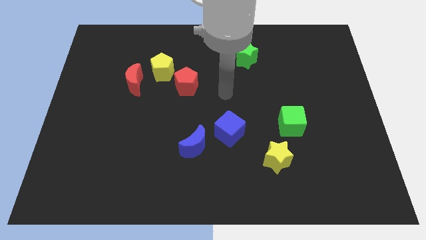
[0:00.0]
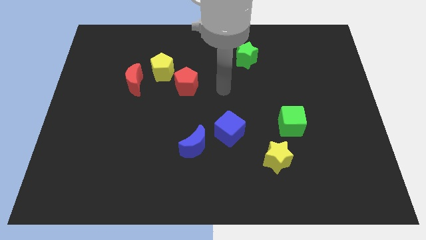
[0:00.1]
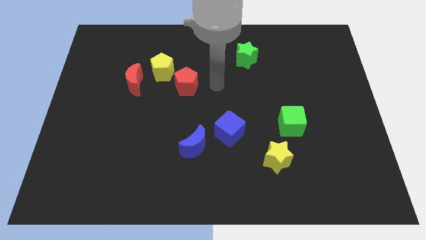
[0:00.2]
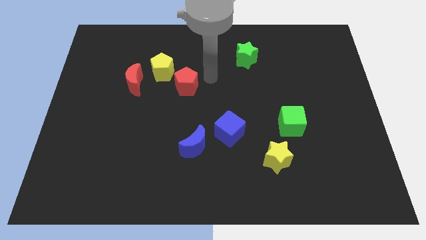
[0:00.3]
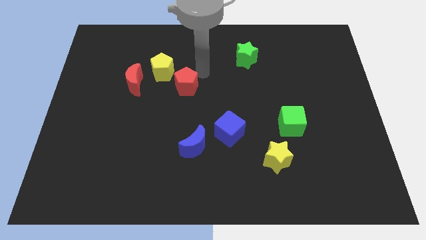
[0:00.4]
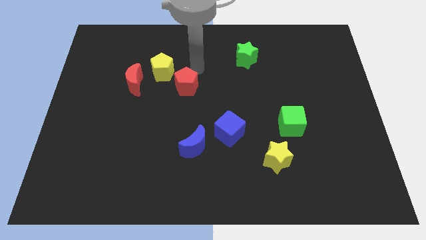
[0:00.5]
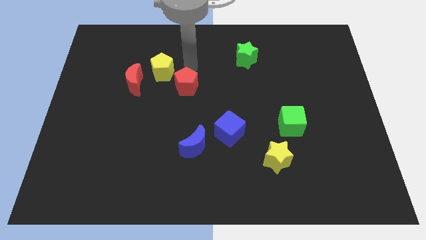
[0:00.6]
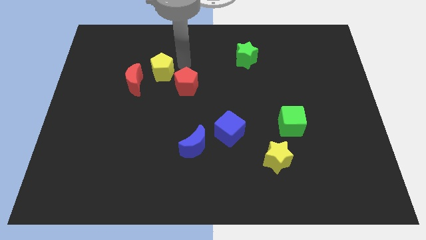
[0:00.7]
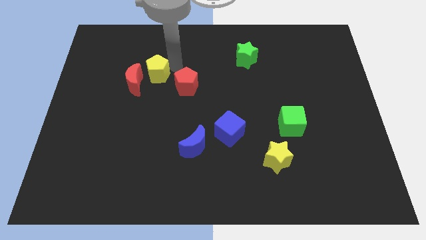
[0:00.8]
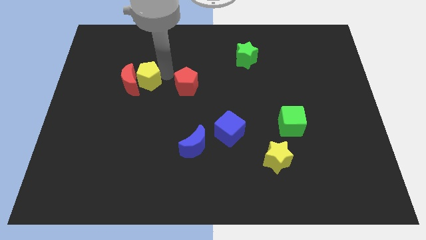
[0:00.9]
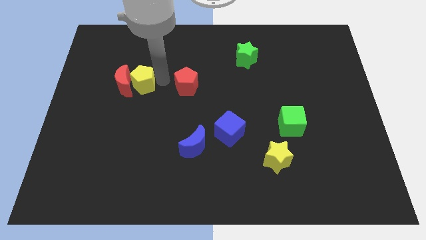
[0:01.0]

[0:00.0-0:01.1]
separate the red pentagon from the yellow pentagon

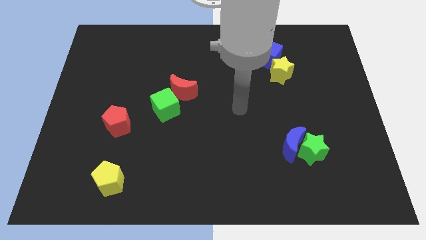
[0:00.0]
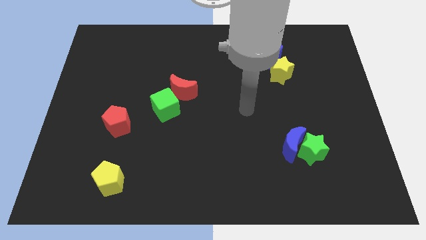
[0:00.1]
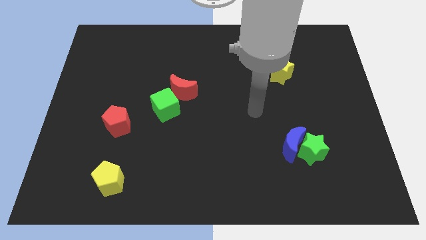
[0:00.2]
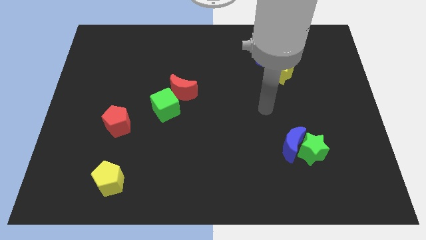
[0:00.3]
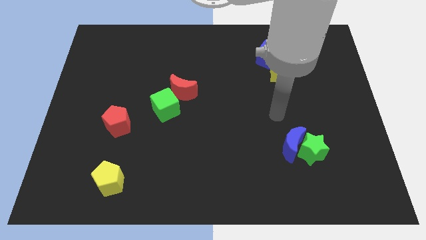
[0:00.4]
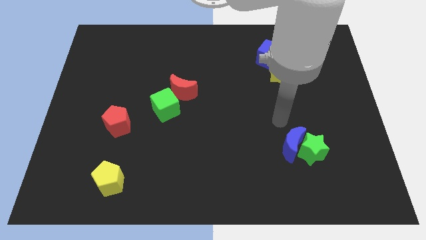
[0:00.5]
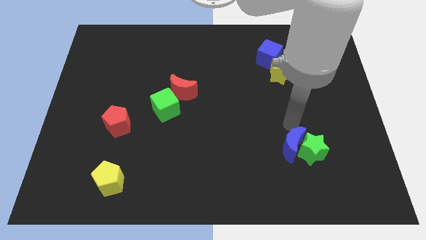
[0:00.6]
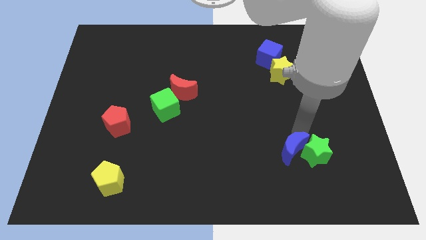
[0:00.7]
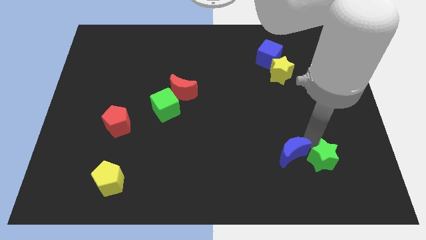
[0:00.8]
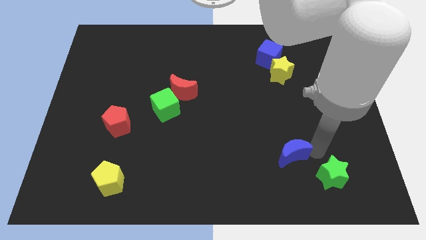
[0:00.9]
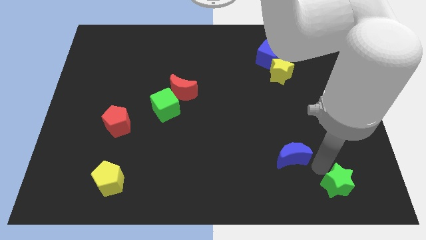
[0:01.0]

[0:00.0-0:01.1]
separate the blue moon from the green star

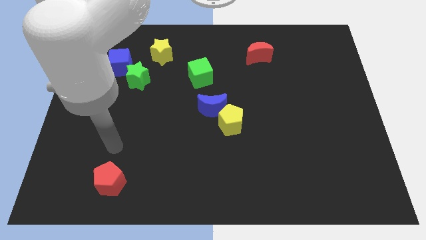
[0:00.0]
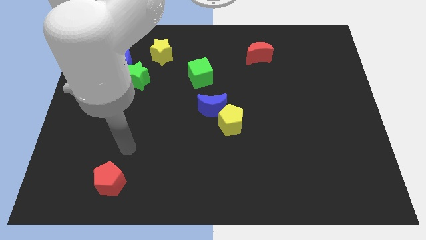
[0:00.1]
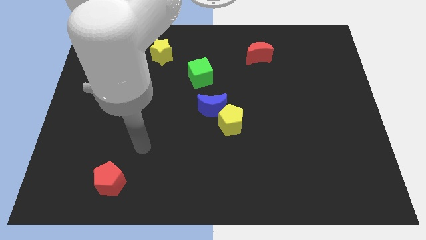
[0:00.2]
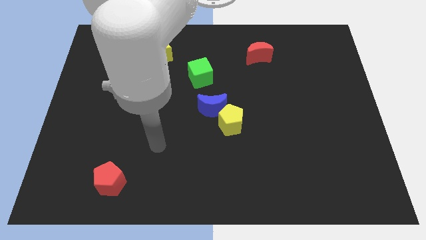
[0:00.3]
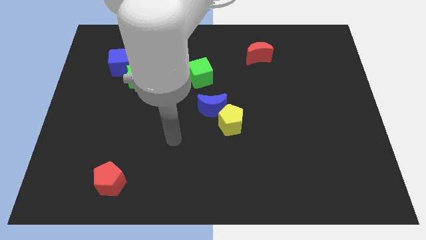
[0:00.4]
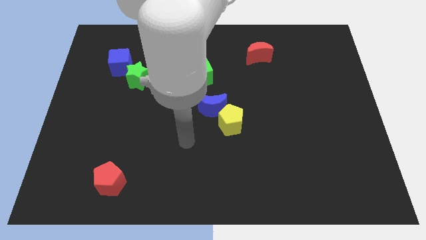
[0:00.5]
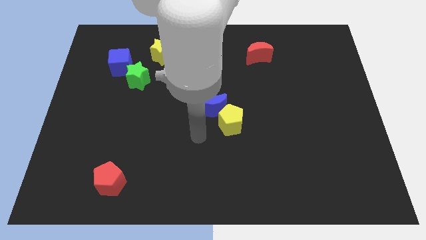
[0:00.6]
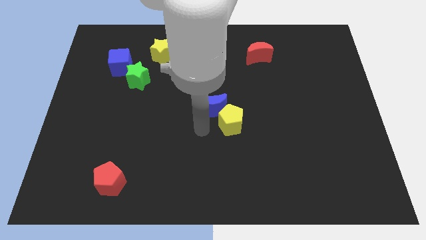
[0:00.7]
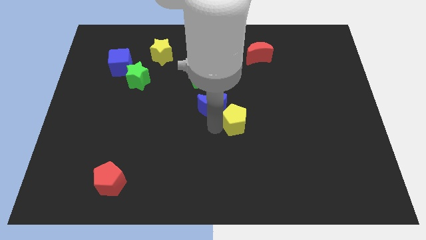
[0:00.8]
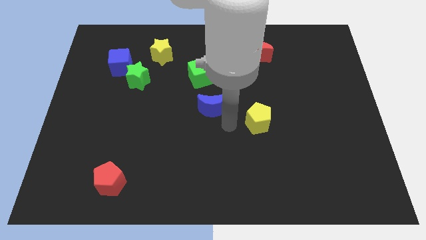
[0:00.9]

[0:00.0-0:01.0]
separate the blue moon from the yellow pentagon

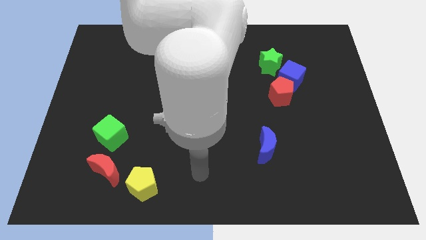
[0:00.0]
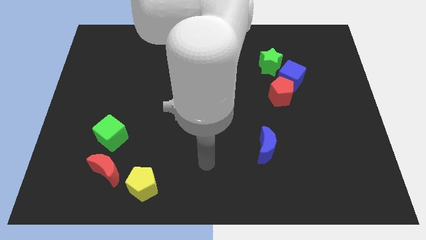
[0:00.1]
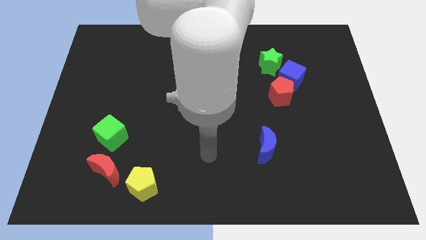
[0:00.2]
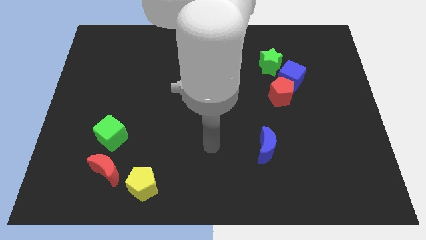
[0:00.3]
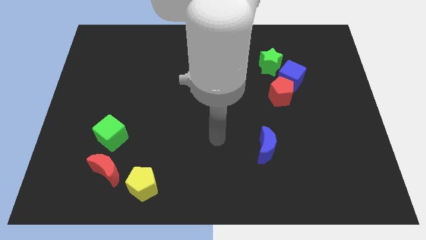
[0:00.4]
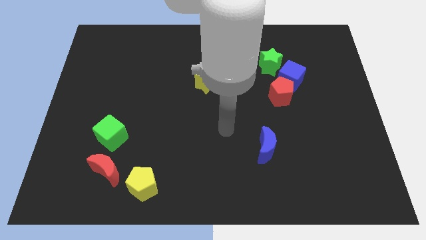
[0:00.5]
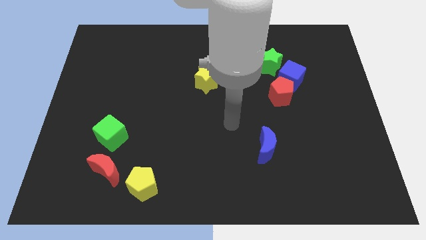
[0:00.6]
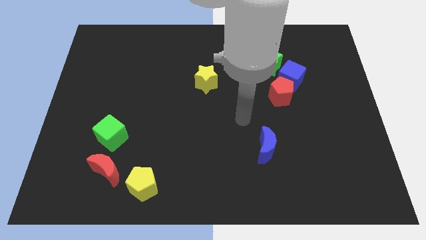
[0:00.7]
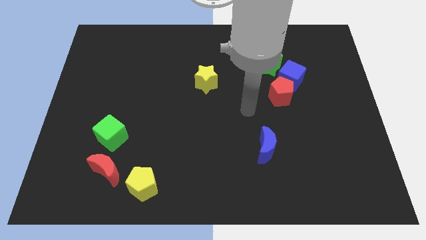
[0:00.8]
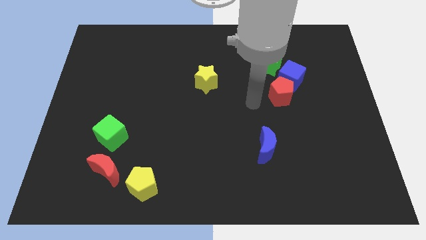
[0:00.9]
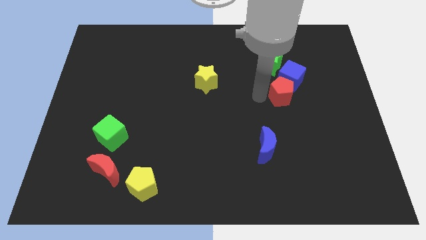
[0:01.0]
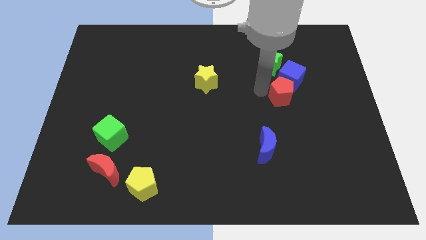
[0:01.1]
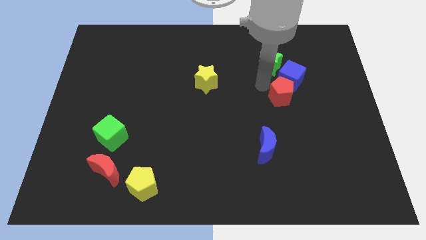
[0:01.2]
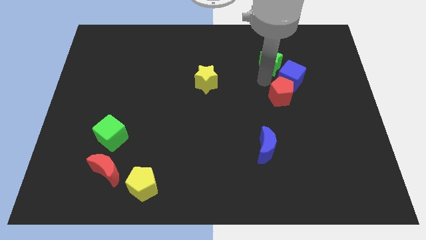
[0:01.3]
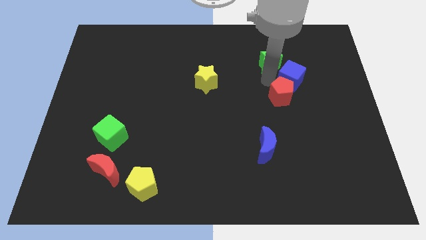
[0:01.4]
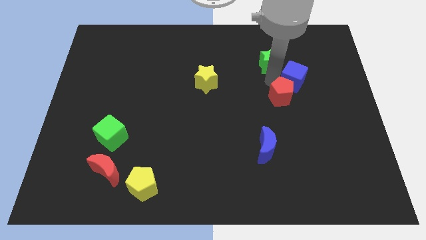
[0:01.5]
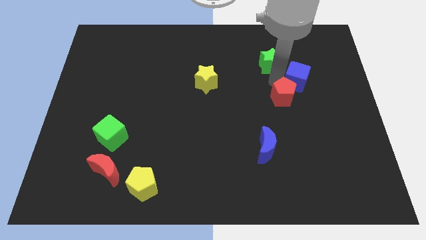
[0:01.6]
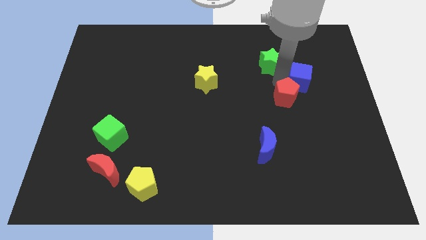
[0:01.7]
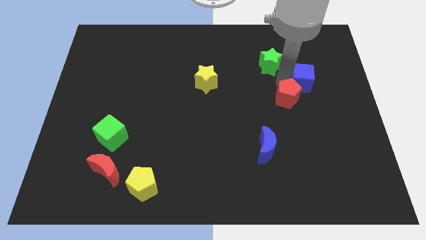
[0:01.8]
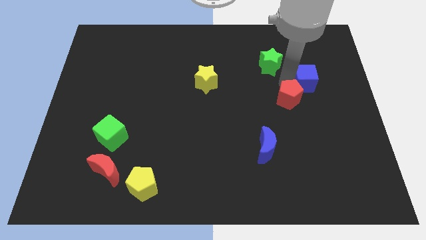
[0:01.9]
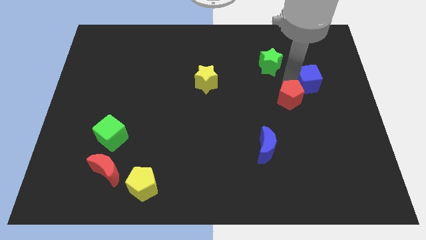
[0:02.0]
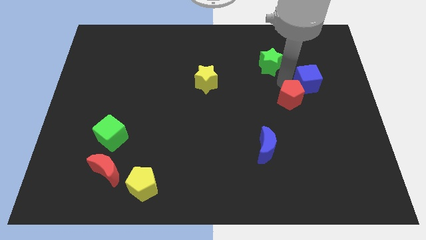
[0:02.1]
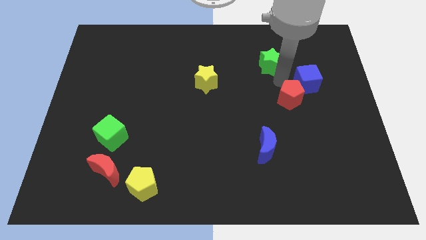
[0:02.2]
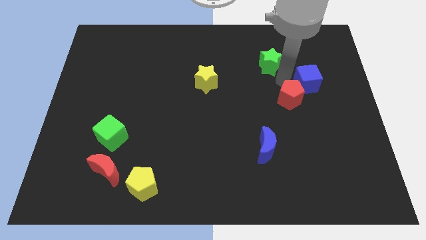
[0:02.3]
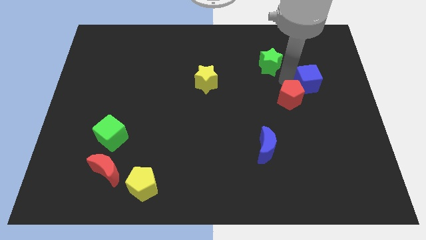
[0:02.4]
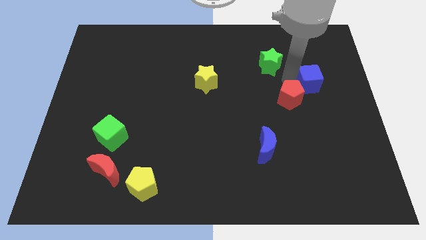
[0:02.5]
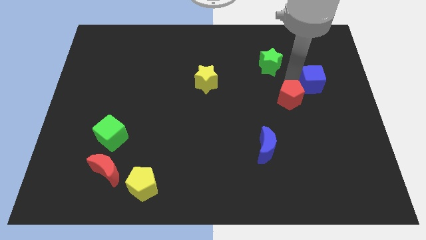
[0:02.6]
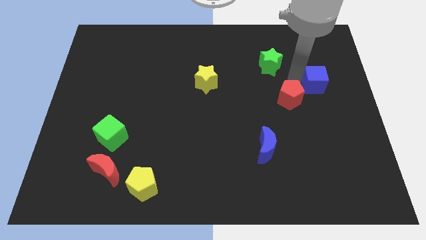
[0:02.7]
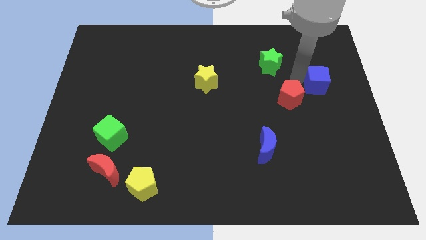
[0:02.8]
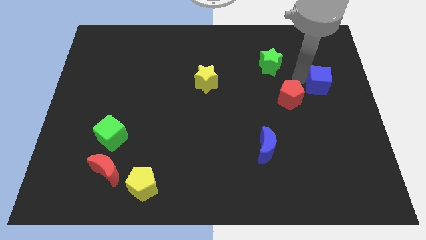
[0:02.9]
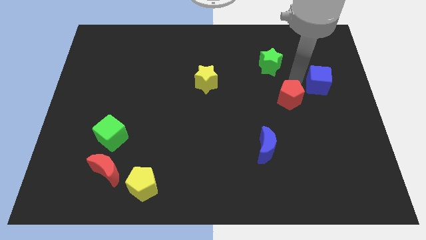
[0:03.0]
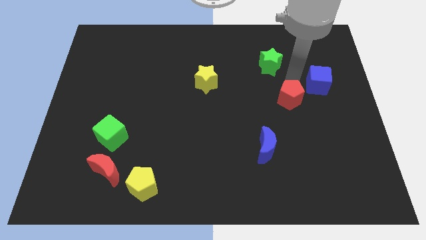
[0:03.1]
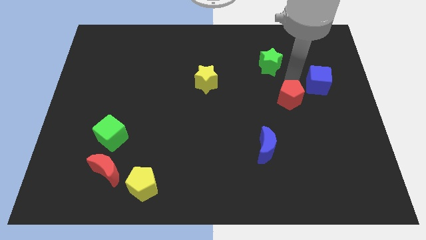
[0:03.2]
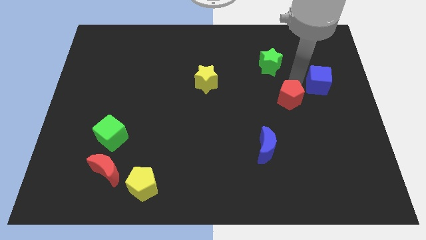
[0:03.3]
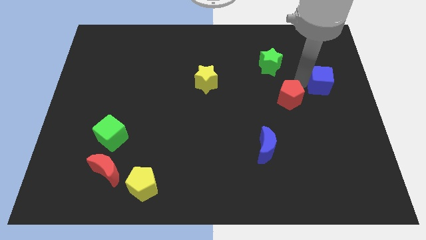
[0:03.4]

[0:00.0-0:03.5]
separate the blue cube from the red pentagon and green star

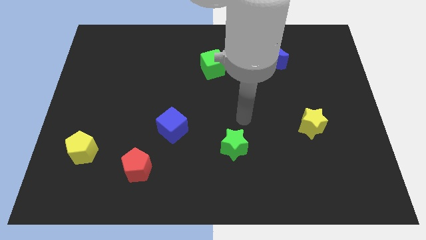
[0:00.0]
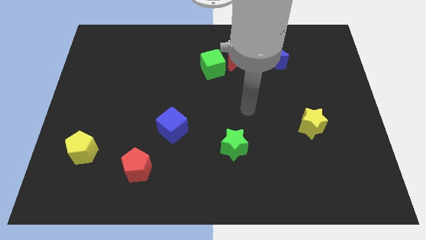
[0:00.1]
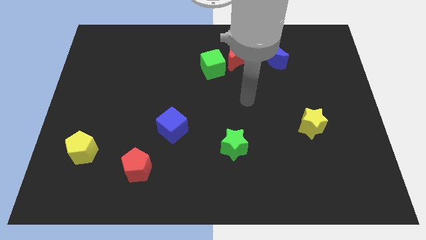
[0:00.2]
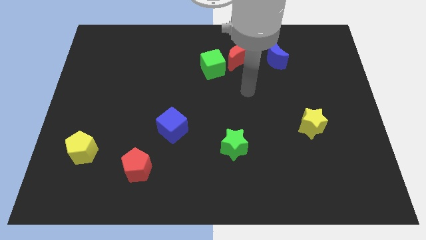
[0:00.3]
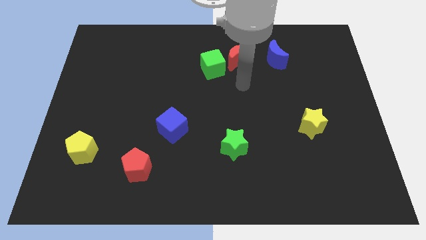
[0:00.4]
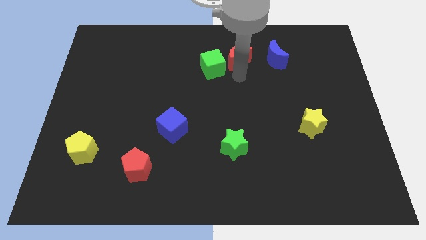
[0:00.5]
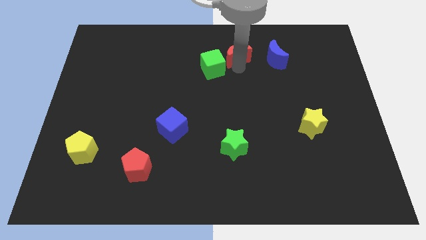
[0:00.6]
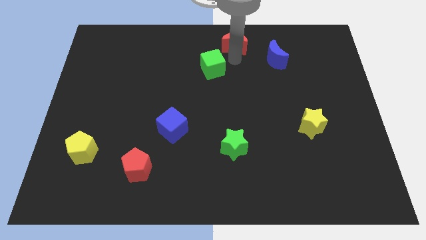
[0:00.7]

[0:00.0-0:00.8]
move the green cube away from the red moon

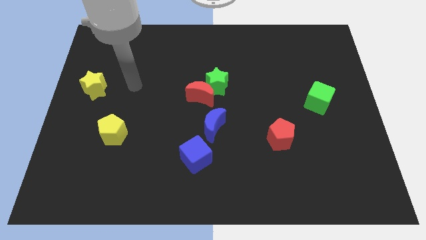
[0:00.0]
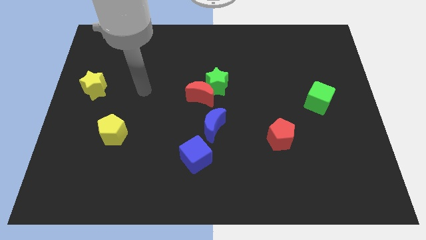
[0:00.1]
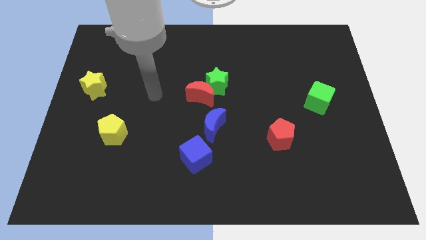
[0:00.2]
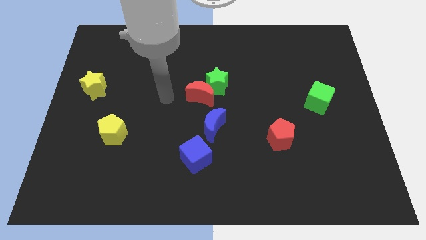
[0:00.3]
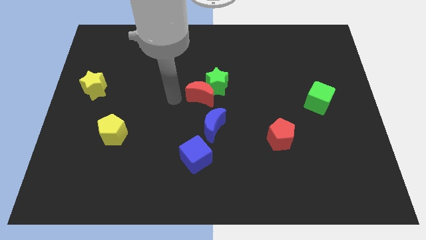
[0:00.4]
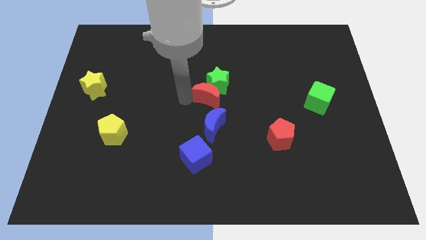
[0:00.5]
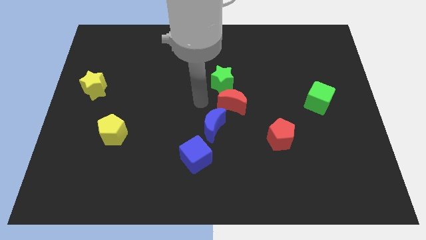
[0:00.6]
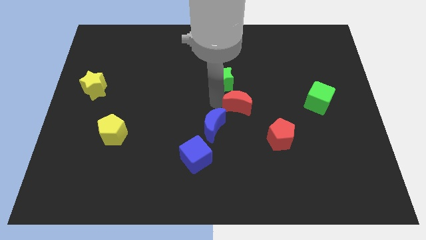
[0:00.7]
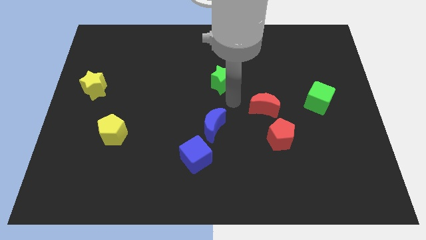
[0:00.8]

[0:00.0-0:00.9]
pull the green star apart from the red moon

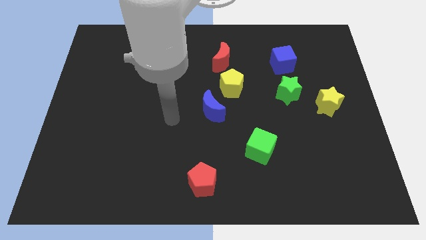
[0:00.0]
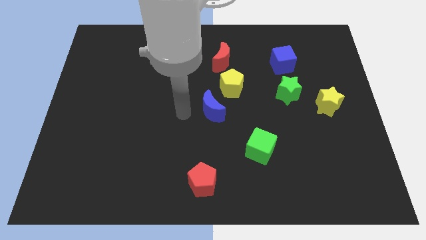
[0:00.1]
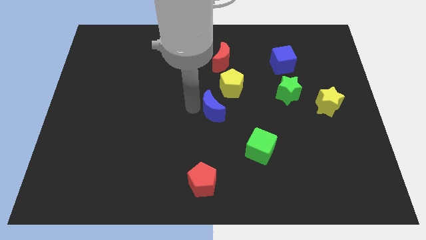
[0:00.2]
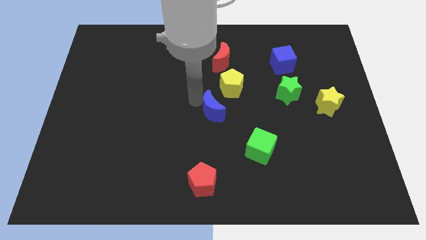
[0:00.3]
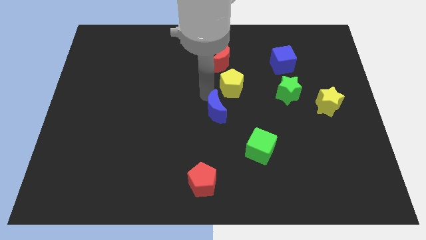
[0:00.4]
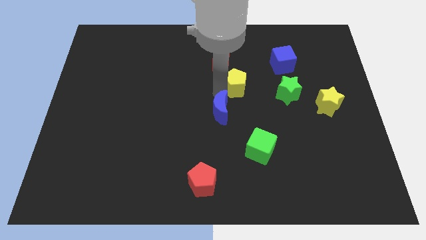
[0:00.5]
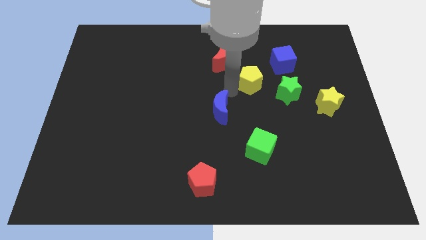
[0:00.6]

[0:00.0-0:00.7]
pull the blue moon apart from the yellow pentagon

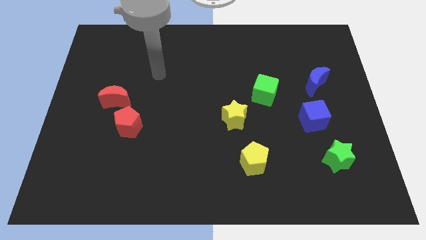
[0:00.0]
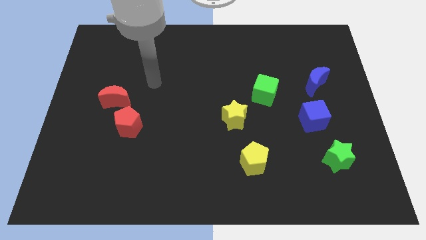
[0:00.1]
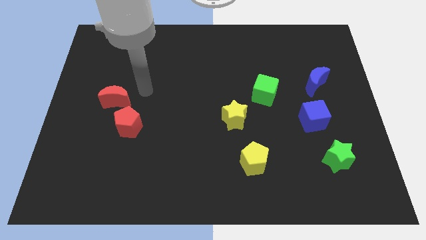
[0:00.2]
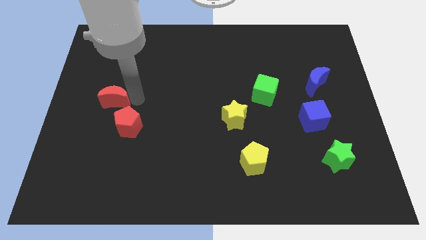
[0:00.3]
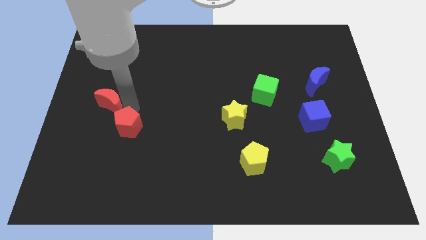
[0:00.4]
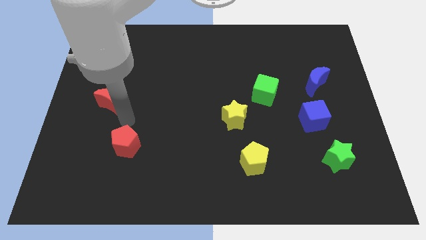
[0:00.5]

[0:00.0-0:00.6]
separate the red moon from the red pentagon
